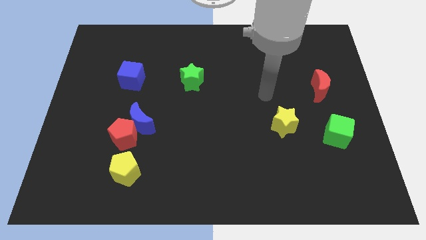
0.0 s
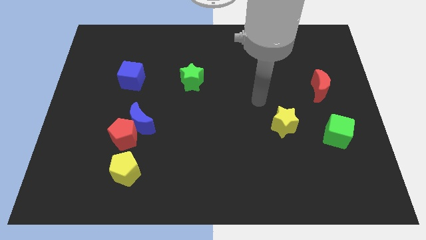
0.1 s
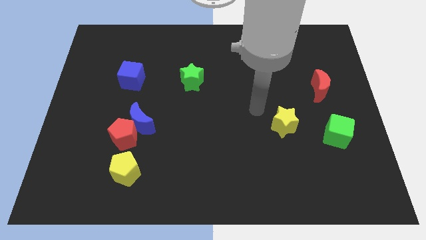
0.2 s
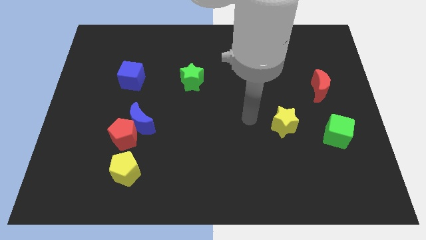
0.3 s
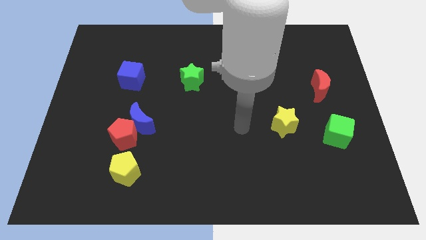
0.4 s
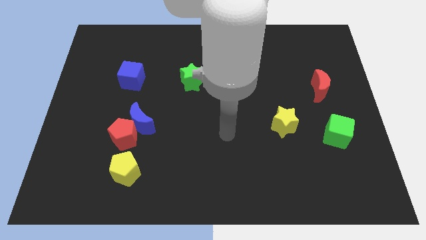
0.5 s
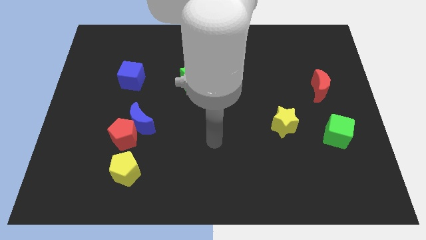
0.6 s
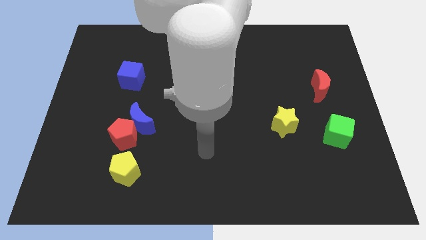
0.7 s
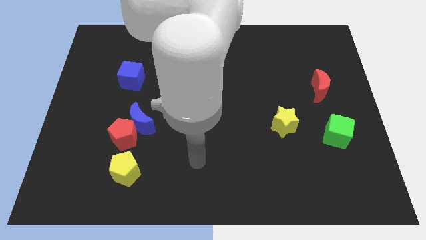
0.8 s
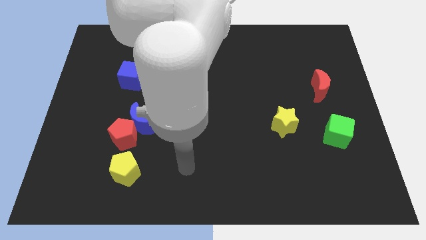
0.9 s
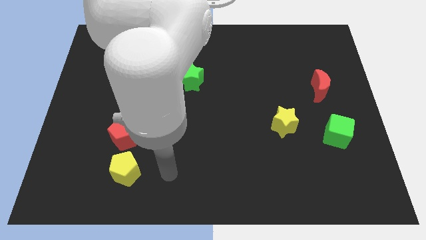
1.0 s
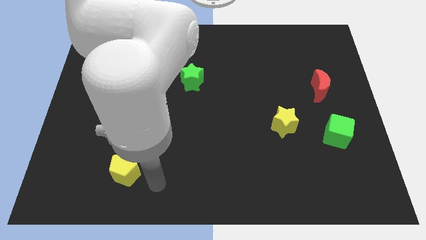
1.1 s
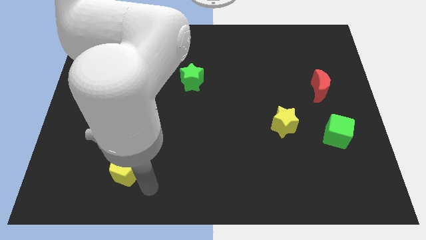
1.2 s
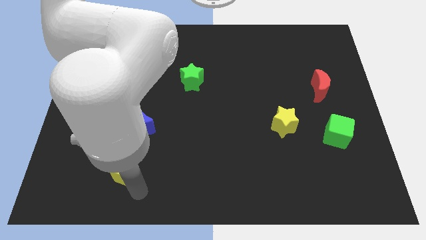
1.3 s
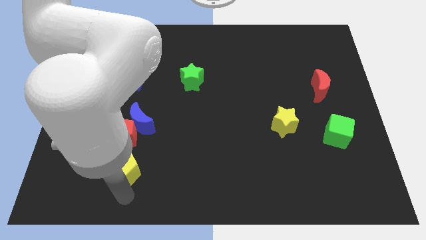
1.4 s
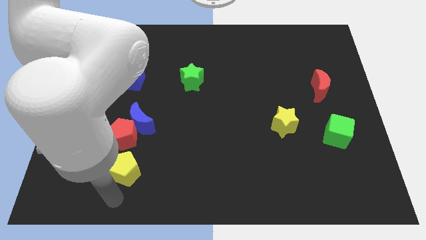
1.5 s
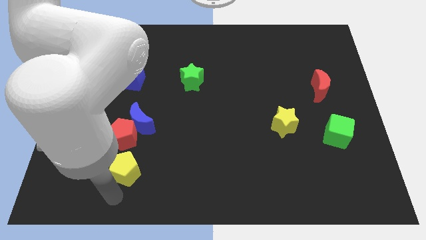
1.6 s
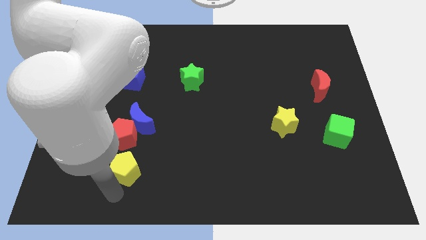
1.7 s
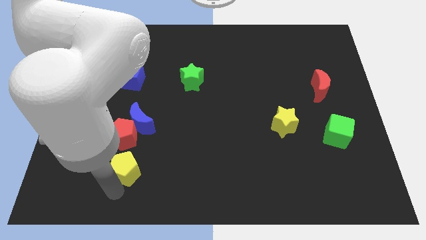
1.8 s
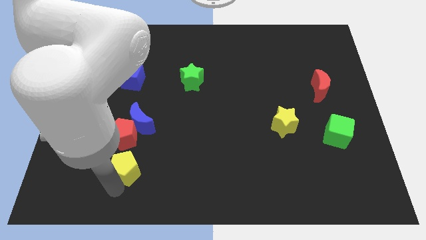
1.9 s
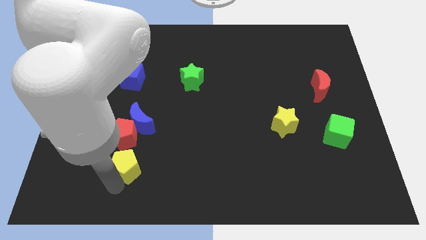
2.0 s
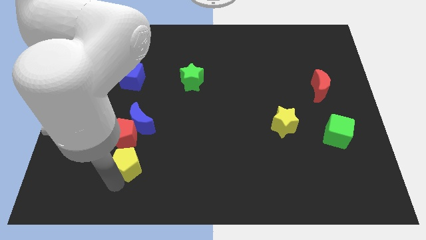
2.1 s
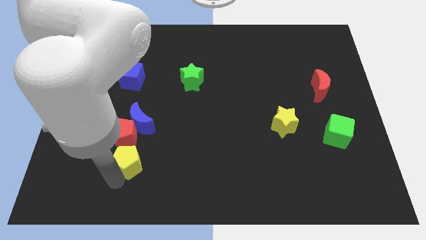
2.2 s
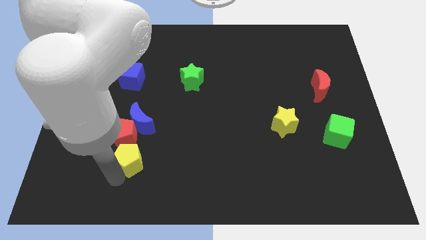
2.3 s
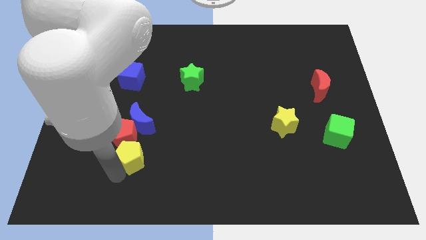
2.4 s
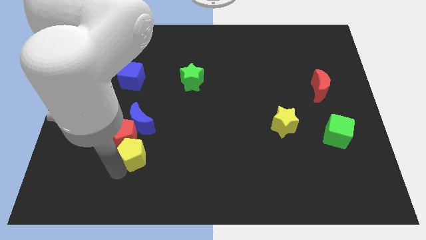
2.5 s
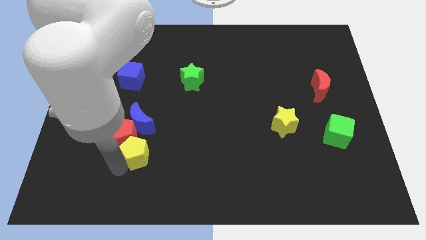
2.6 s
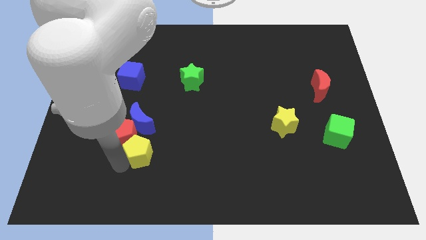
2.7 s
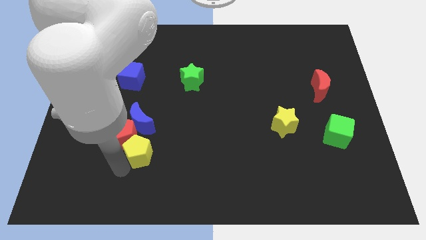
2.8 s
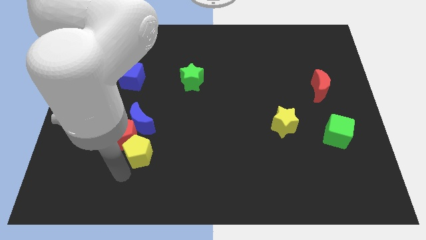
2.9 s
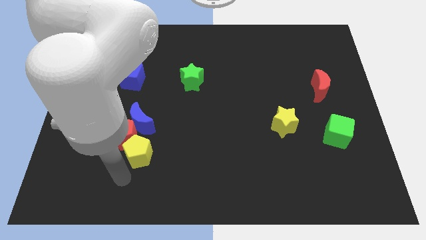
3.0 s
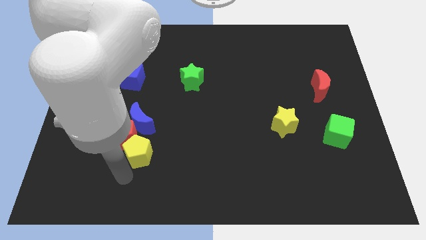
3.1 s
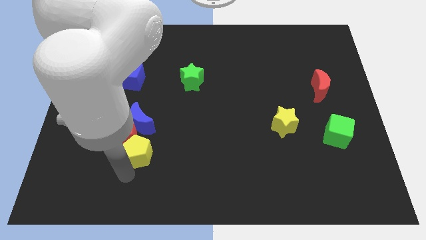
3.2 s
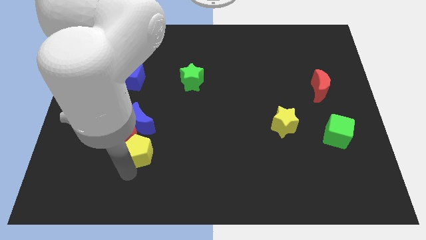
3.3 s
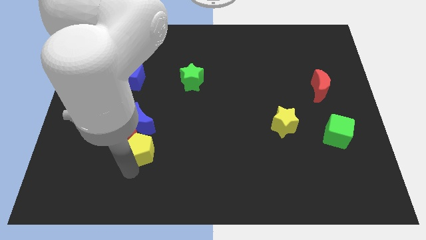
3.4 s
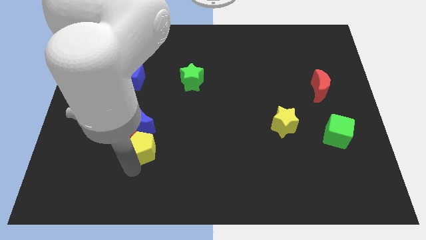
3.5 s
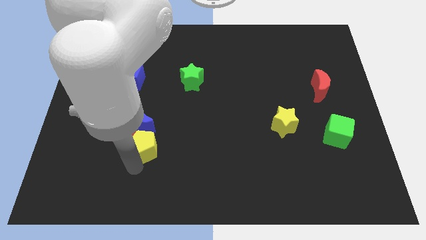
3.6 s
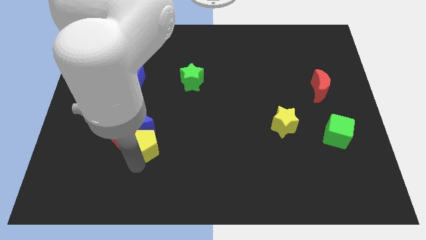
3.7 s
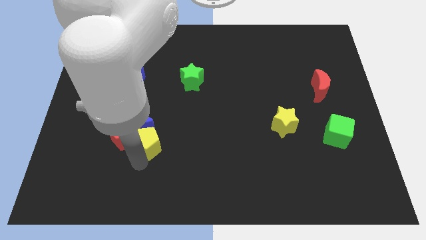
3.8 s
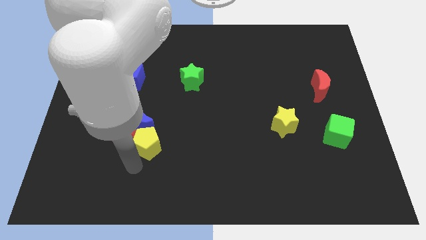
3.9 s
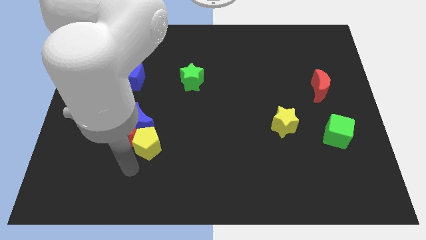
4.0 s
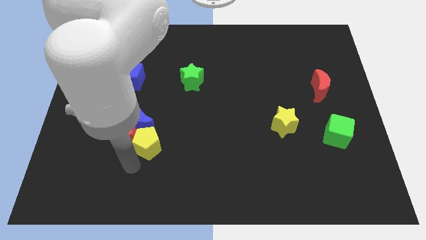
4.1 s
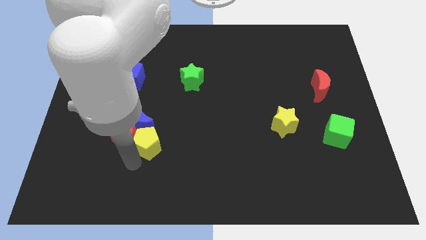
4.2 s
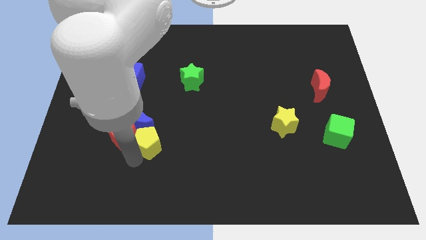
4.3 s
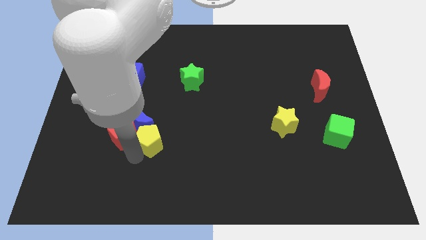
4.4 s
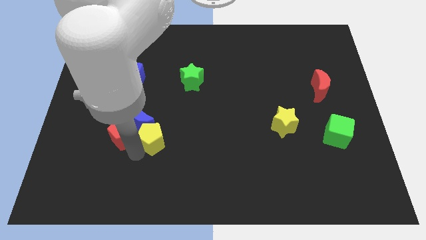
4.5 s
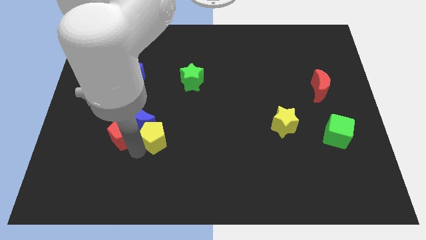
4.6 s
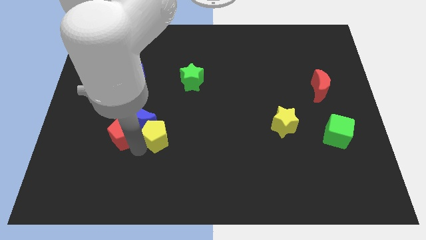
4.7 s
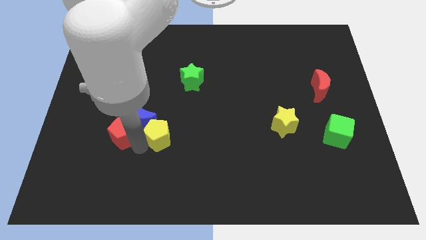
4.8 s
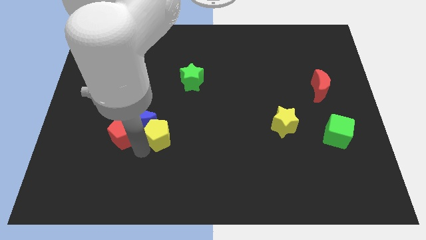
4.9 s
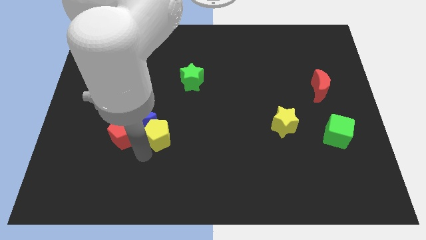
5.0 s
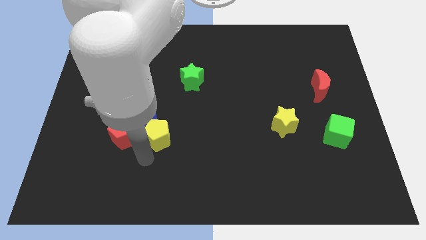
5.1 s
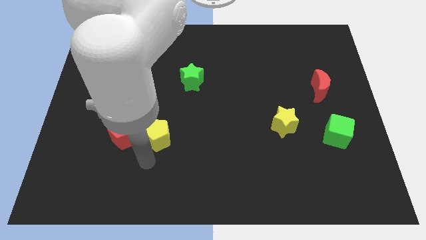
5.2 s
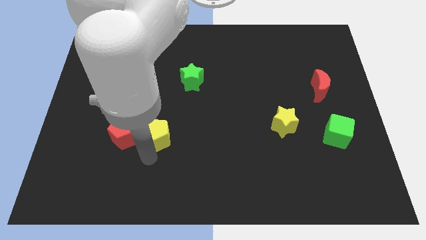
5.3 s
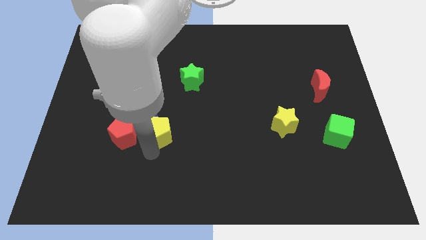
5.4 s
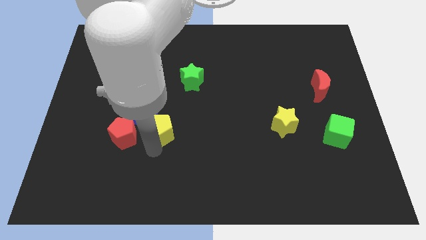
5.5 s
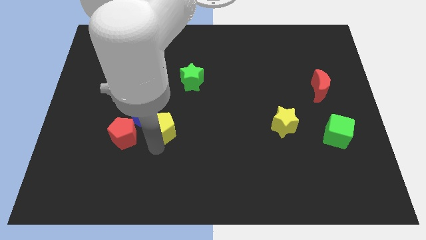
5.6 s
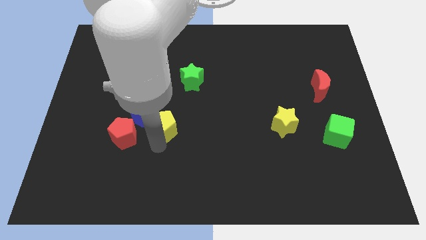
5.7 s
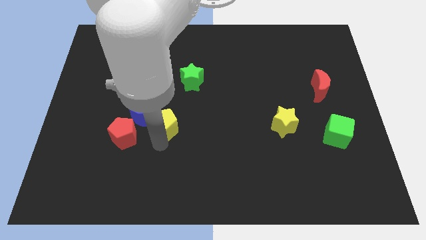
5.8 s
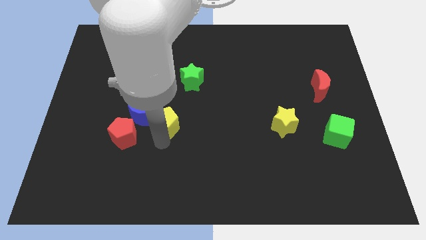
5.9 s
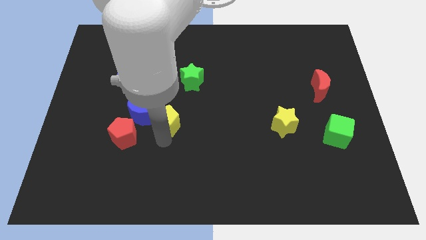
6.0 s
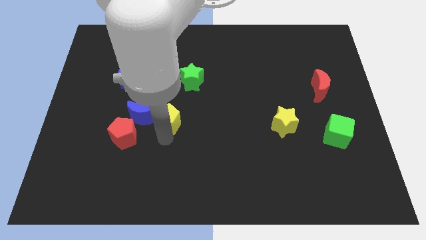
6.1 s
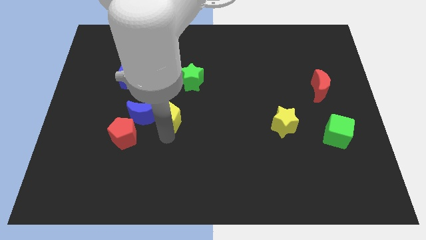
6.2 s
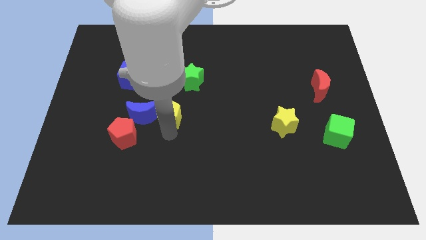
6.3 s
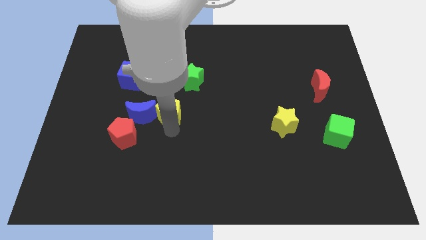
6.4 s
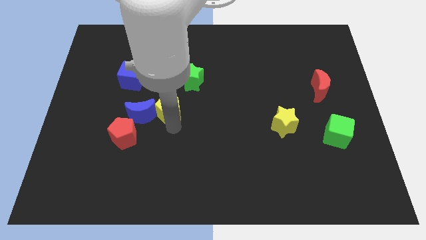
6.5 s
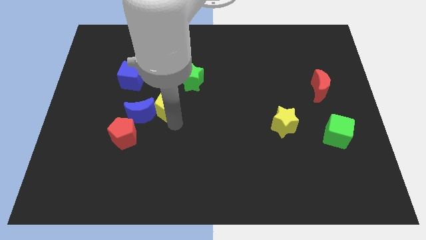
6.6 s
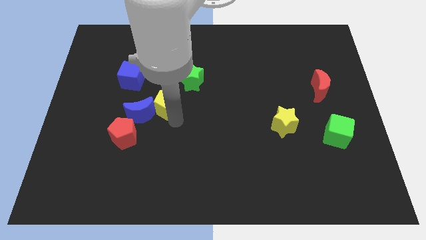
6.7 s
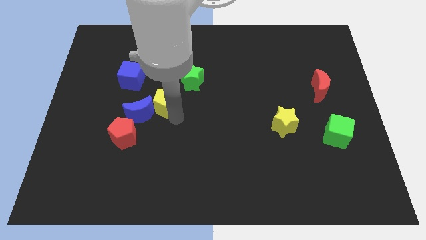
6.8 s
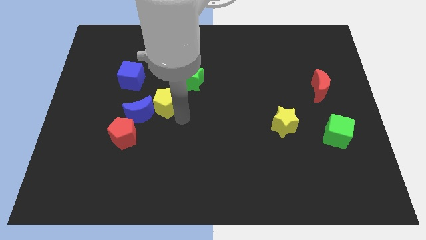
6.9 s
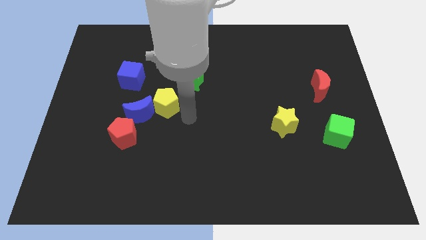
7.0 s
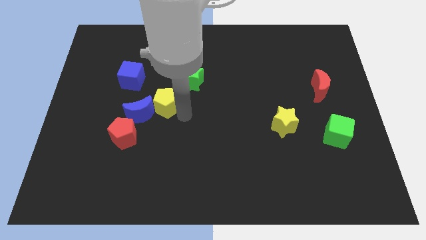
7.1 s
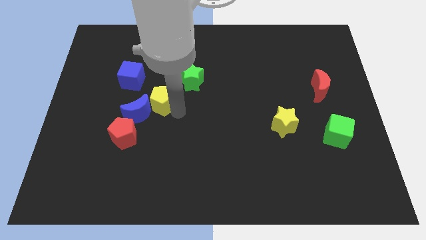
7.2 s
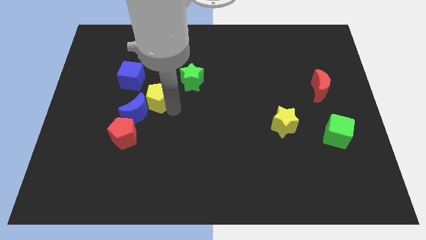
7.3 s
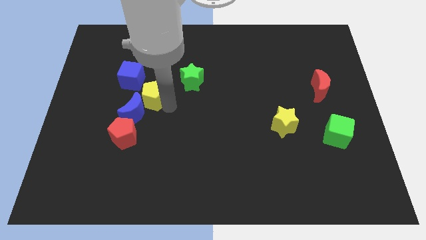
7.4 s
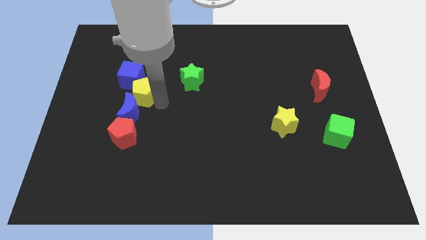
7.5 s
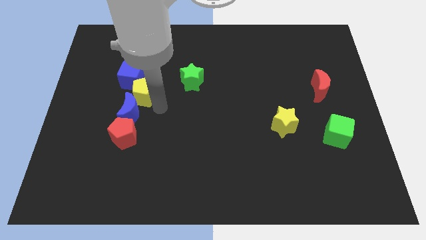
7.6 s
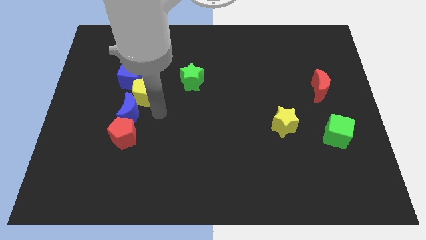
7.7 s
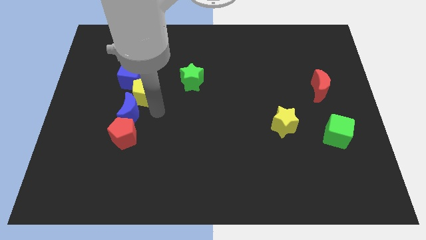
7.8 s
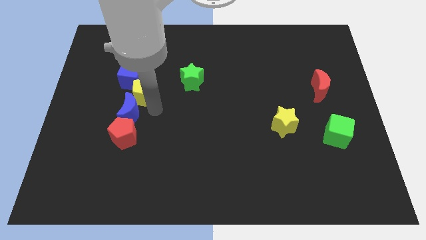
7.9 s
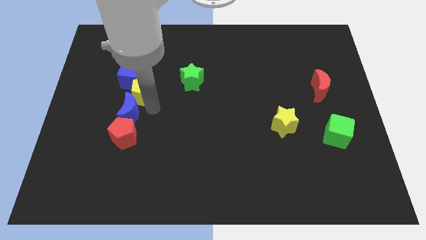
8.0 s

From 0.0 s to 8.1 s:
slide the yellow pentagon next to the blue cube
